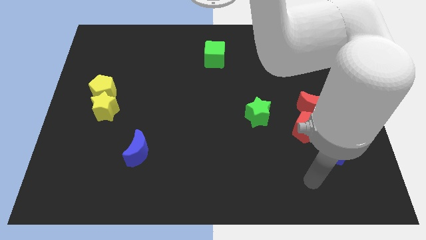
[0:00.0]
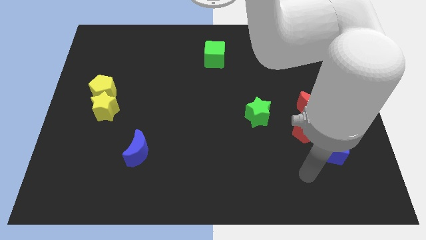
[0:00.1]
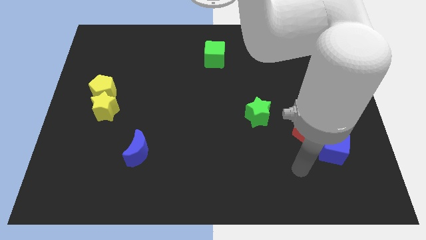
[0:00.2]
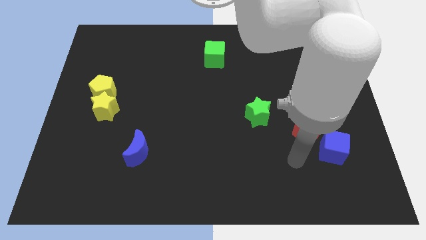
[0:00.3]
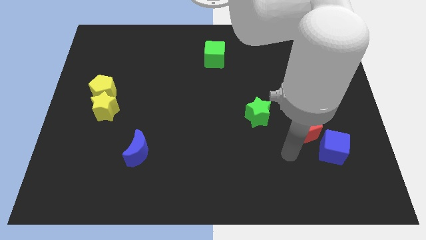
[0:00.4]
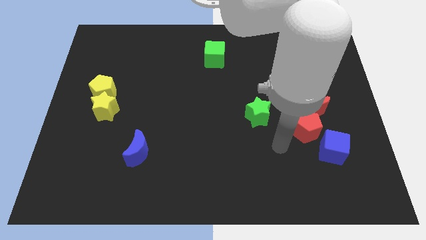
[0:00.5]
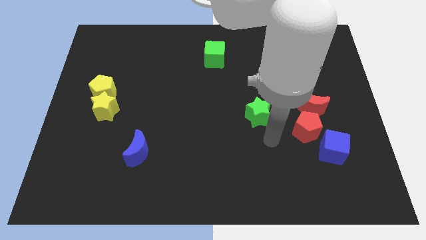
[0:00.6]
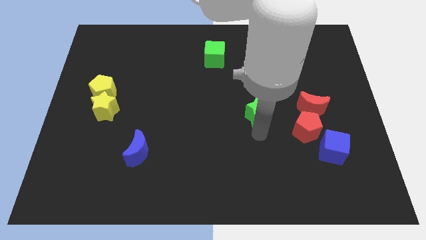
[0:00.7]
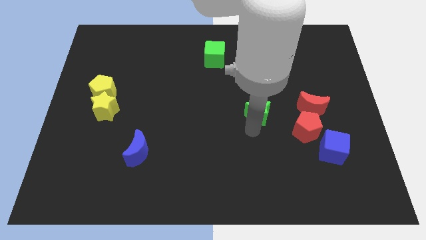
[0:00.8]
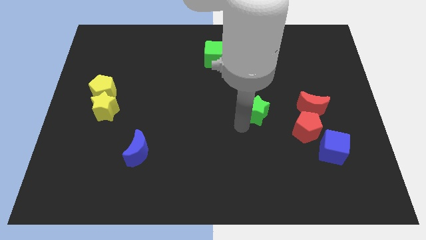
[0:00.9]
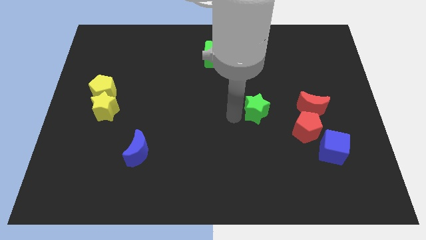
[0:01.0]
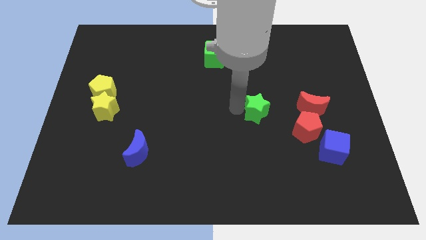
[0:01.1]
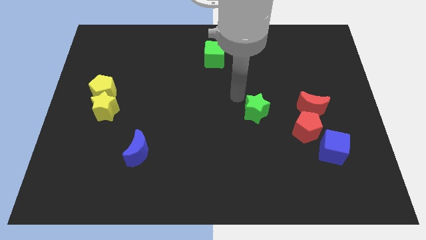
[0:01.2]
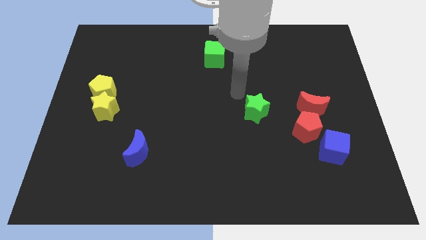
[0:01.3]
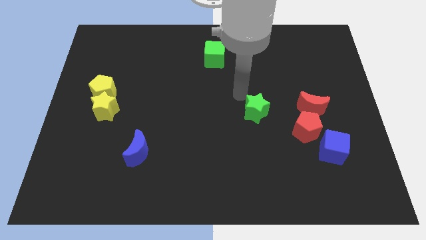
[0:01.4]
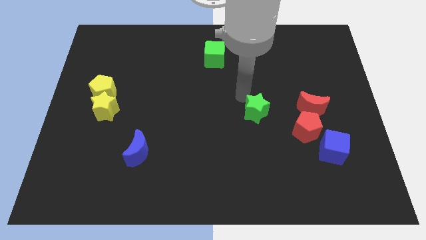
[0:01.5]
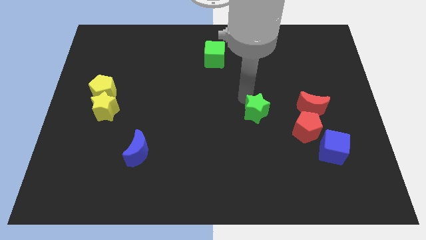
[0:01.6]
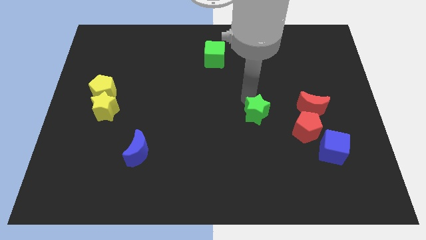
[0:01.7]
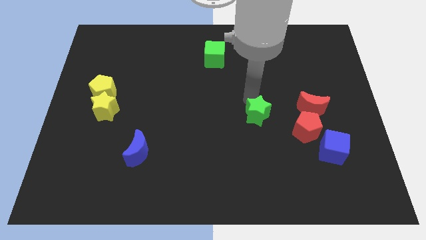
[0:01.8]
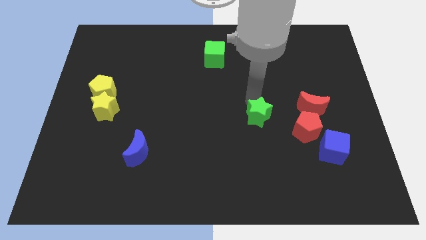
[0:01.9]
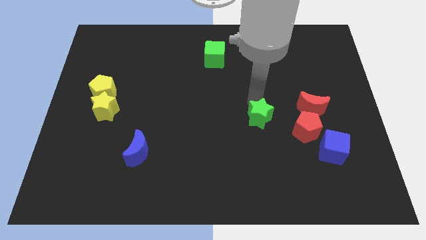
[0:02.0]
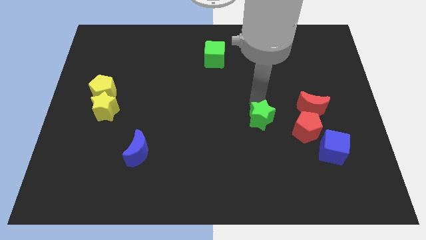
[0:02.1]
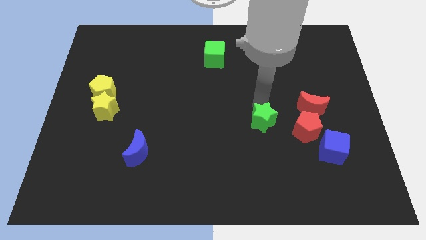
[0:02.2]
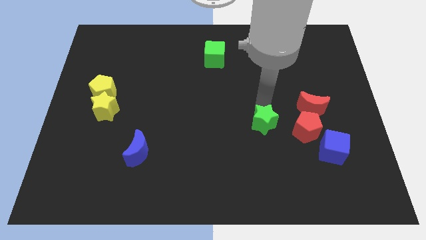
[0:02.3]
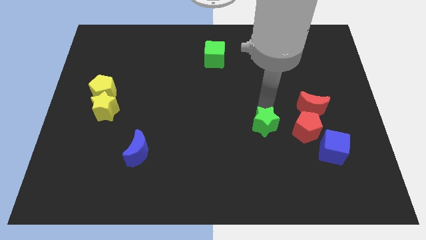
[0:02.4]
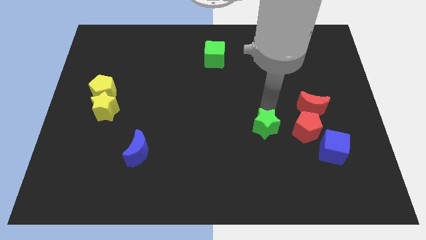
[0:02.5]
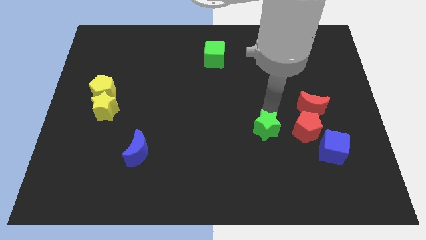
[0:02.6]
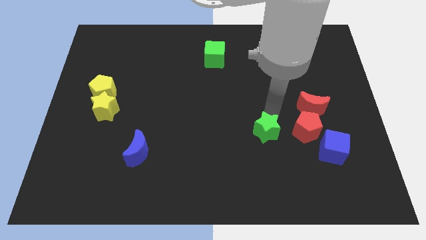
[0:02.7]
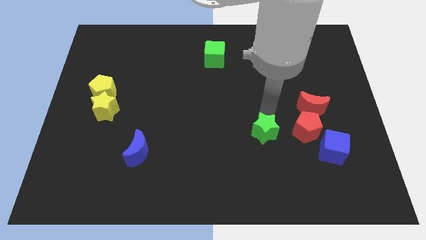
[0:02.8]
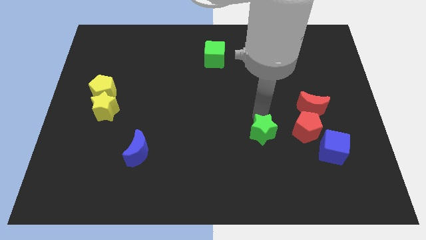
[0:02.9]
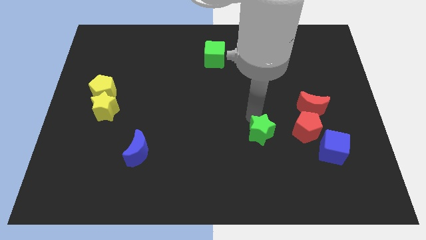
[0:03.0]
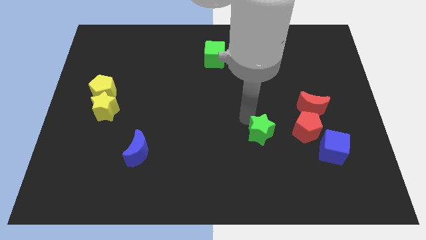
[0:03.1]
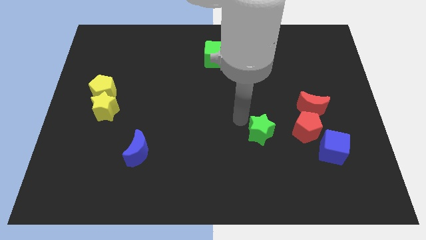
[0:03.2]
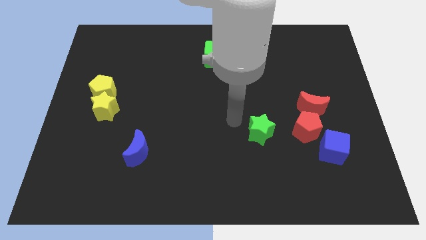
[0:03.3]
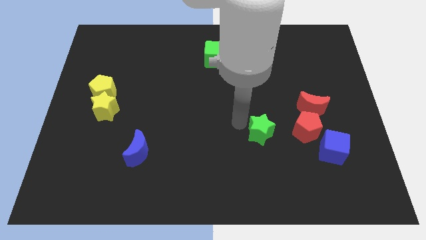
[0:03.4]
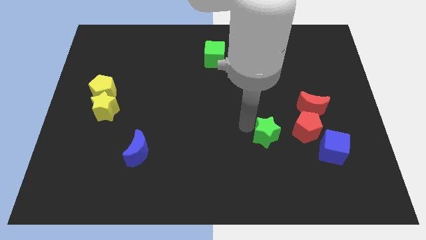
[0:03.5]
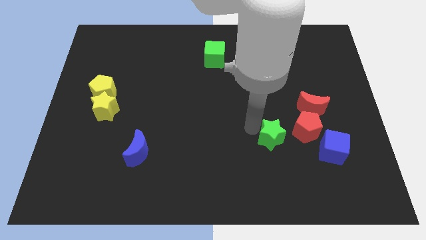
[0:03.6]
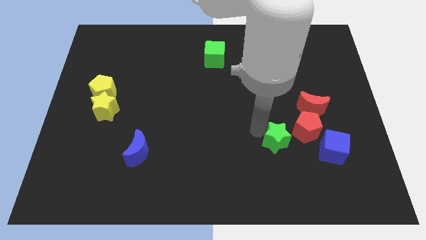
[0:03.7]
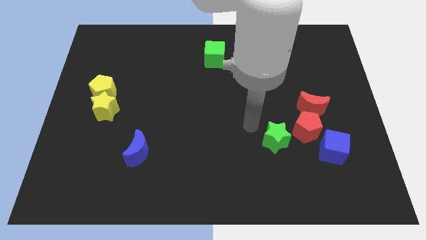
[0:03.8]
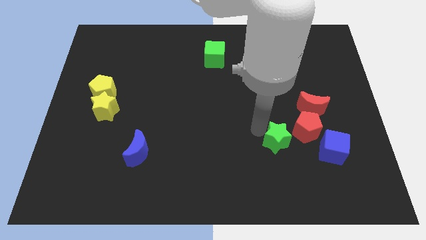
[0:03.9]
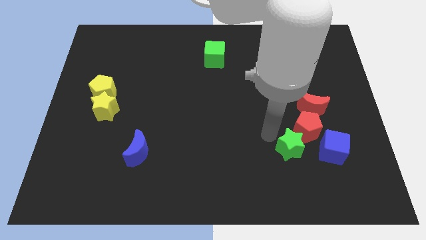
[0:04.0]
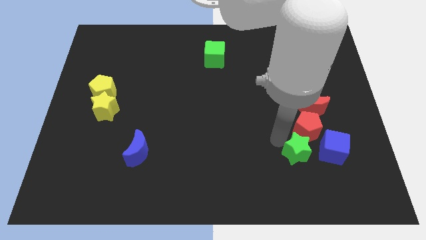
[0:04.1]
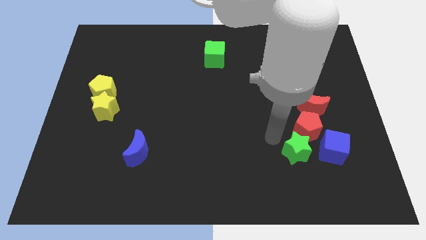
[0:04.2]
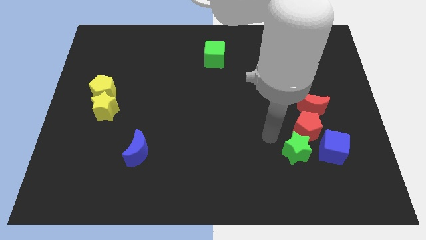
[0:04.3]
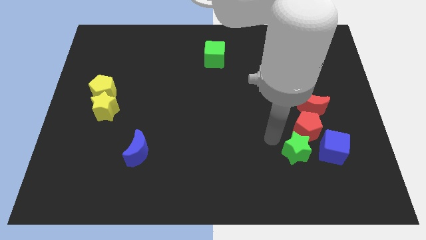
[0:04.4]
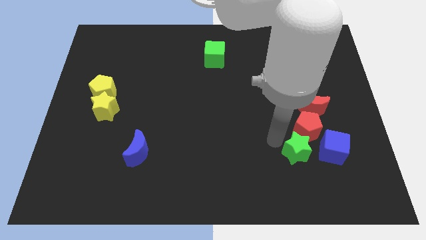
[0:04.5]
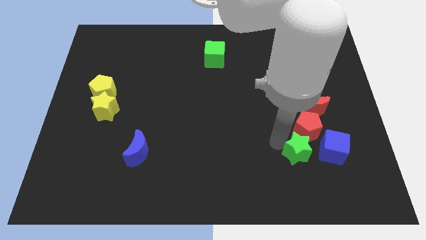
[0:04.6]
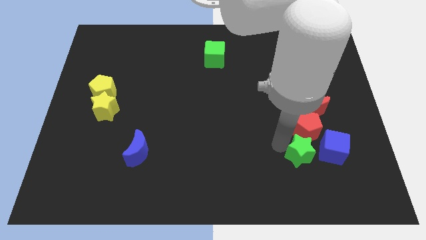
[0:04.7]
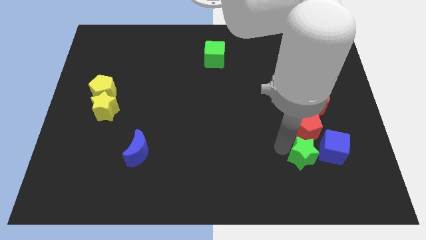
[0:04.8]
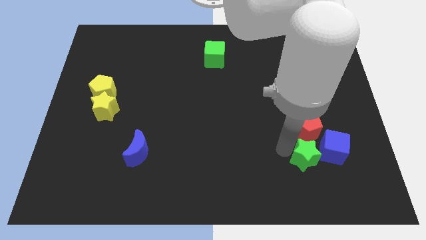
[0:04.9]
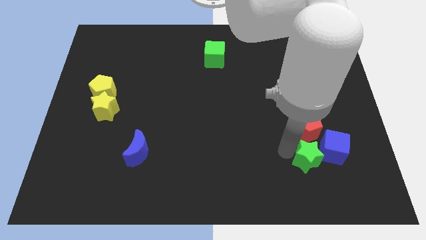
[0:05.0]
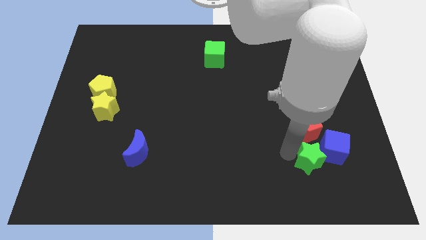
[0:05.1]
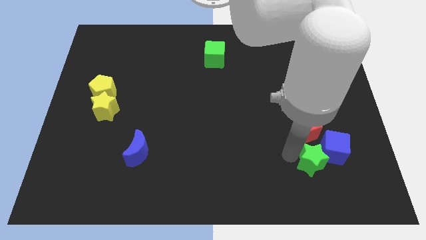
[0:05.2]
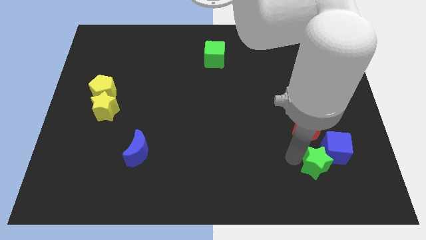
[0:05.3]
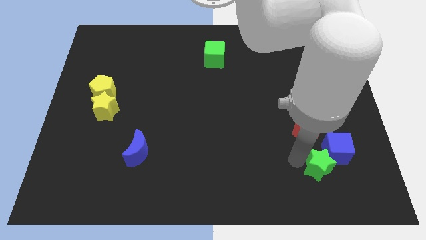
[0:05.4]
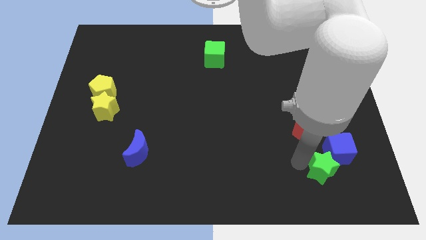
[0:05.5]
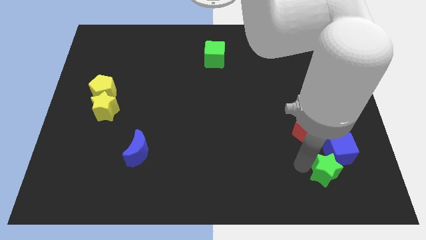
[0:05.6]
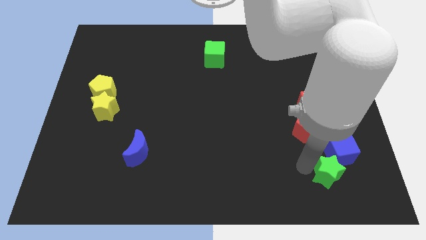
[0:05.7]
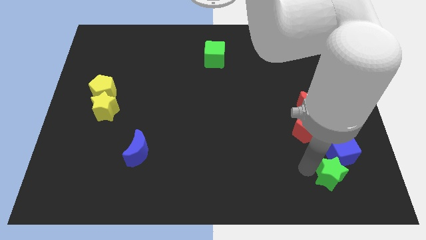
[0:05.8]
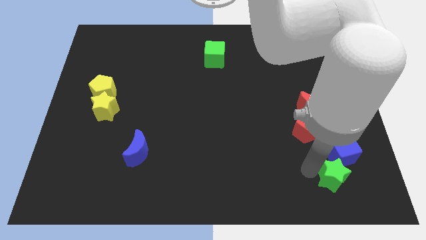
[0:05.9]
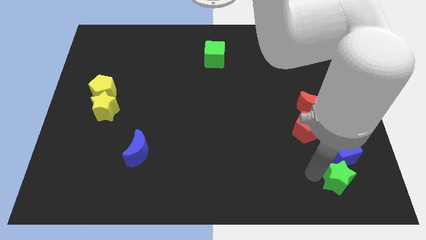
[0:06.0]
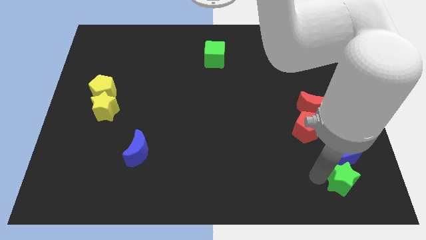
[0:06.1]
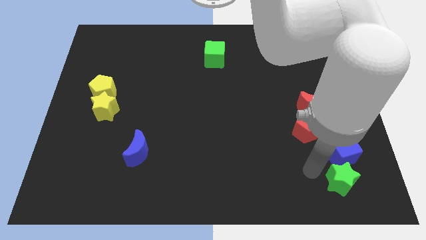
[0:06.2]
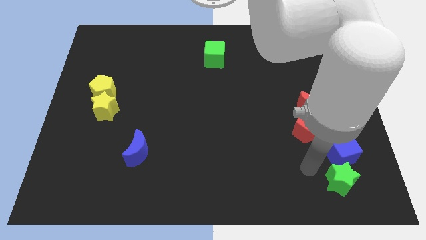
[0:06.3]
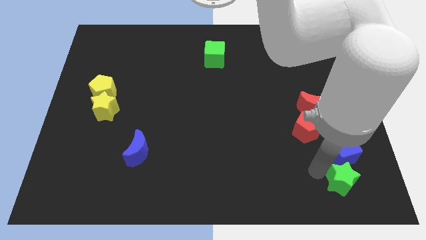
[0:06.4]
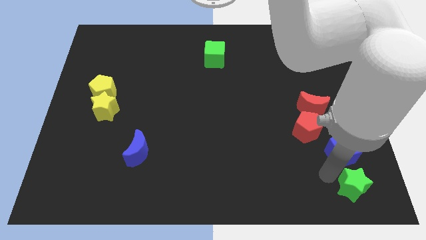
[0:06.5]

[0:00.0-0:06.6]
slide the green star to the lower right corner

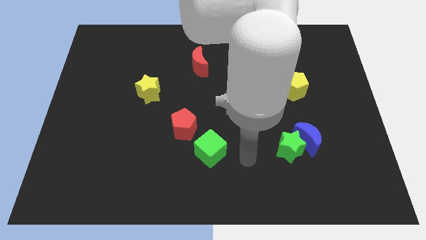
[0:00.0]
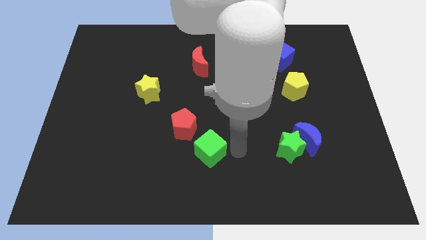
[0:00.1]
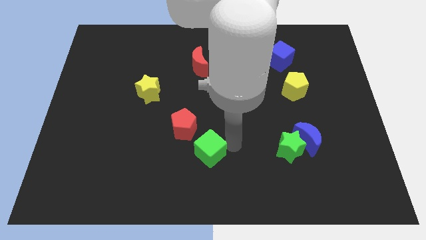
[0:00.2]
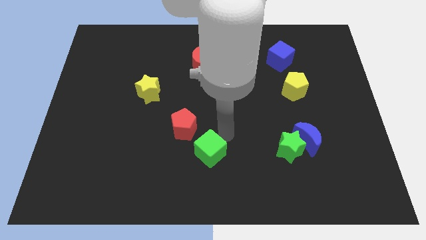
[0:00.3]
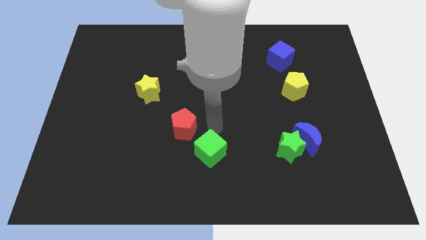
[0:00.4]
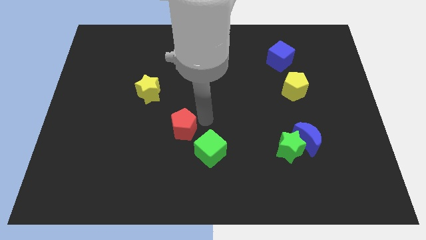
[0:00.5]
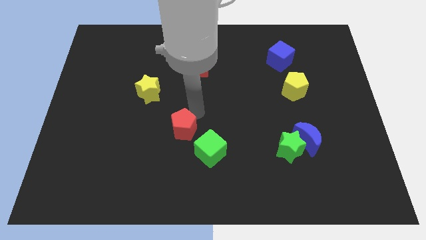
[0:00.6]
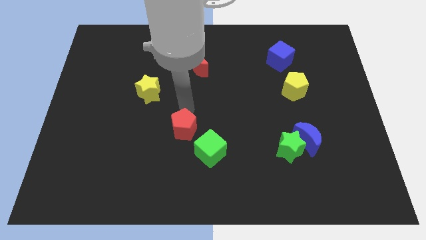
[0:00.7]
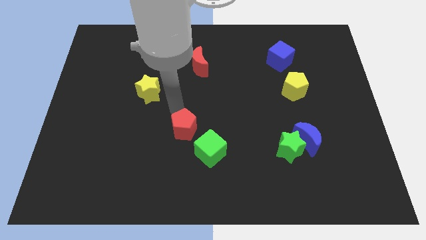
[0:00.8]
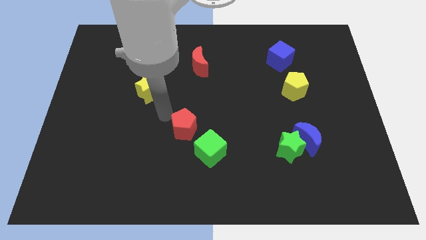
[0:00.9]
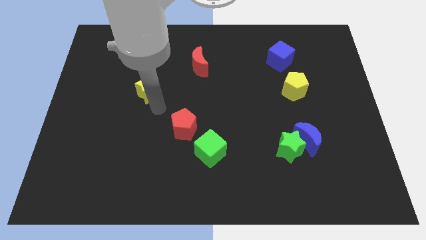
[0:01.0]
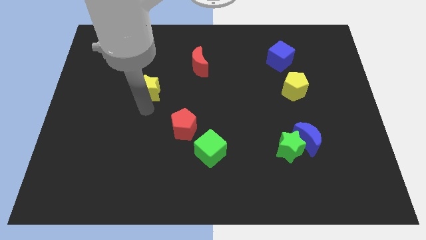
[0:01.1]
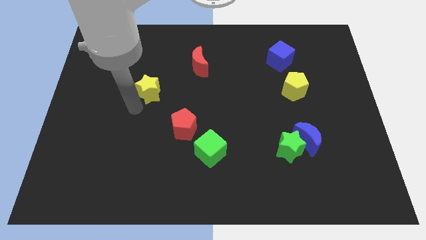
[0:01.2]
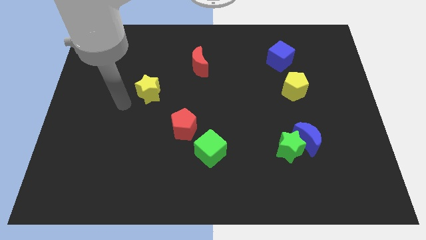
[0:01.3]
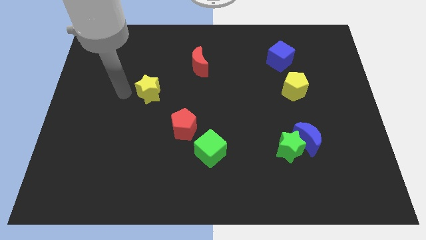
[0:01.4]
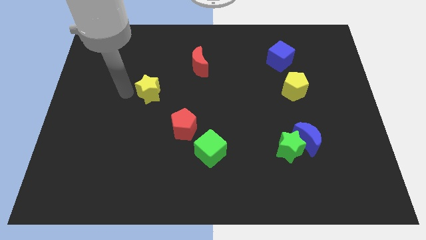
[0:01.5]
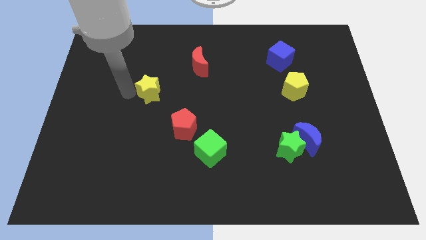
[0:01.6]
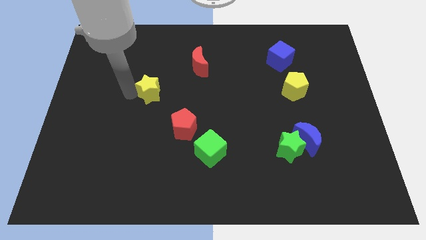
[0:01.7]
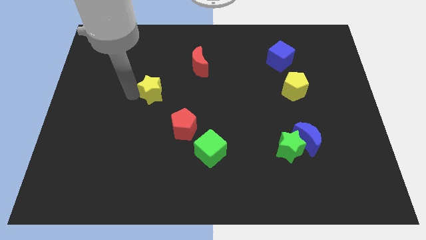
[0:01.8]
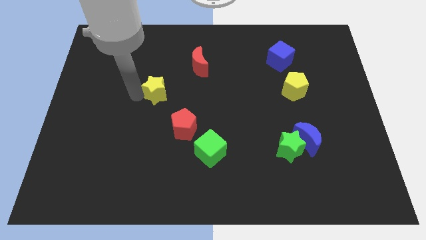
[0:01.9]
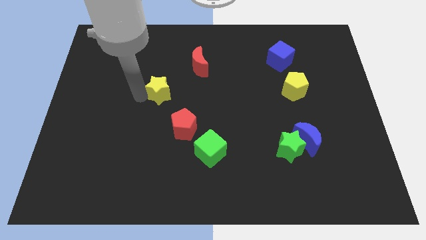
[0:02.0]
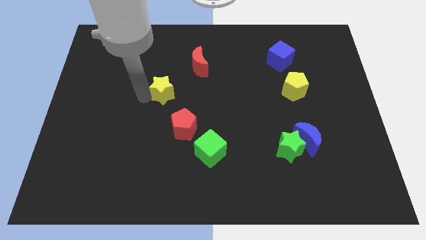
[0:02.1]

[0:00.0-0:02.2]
push the yellow star to the middle
